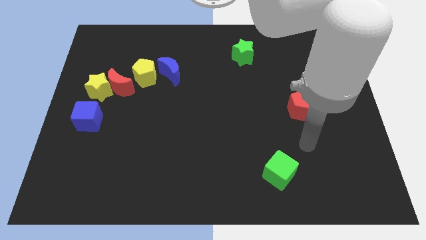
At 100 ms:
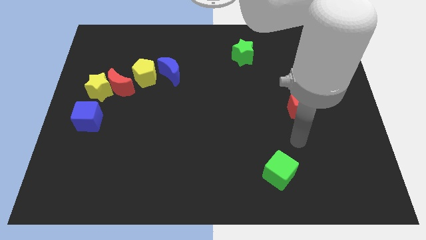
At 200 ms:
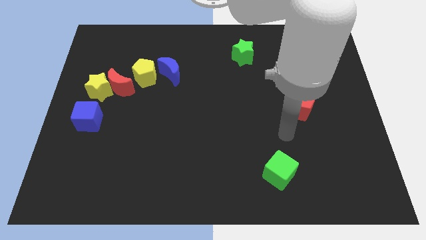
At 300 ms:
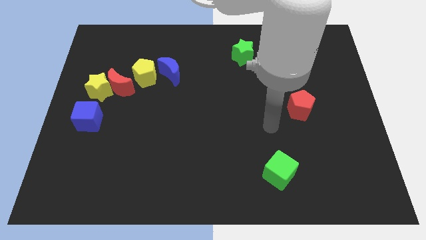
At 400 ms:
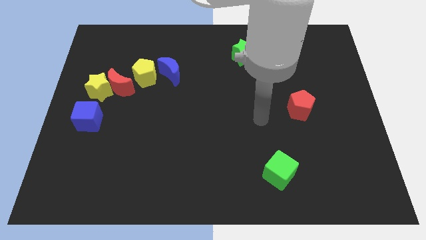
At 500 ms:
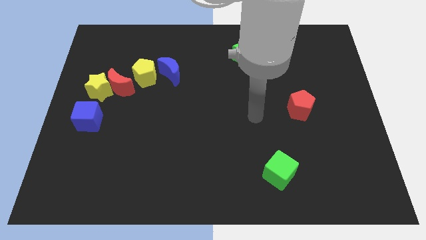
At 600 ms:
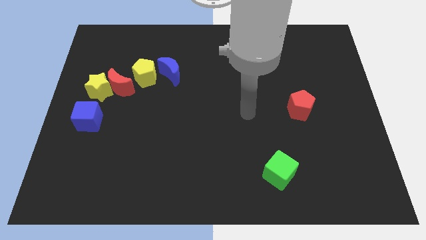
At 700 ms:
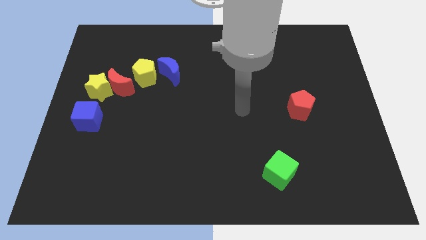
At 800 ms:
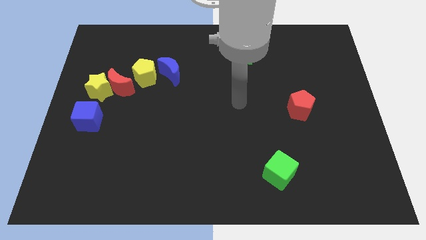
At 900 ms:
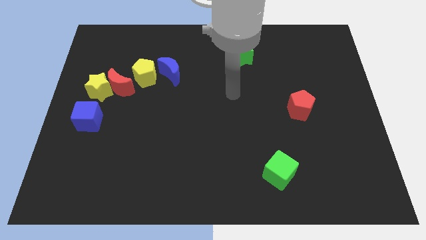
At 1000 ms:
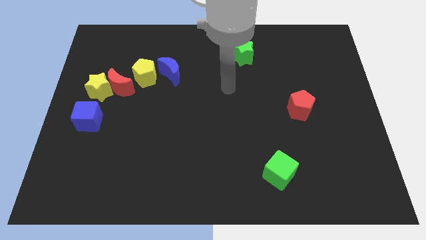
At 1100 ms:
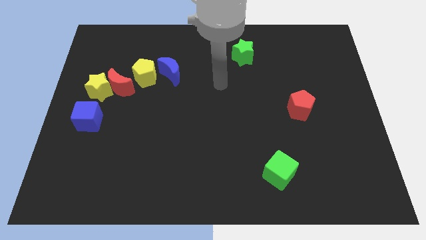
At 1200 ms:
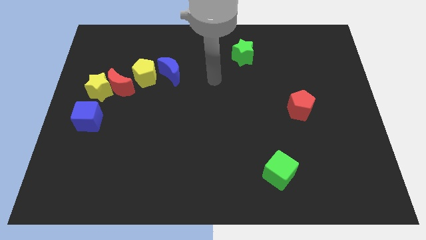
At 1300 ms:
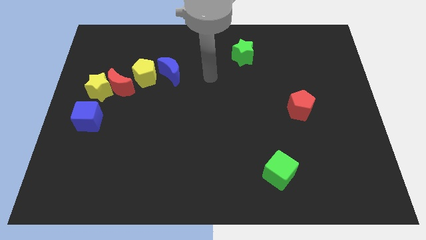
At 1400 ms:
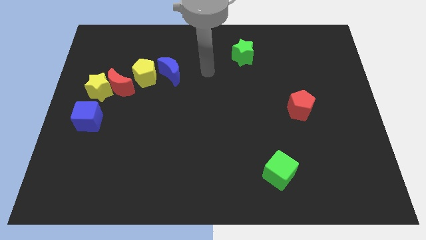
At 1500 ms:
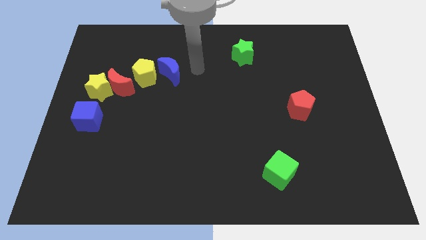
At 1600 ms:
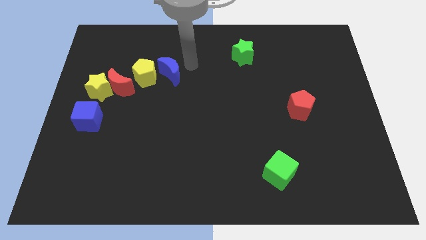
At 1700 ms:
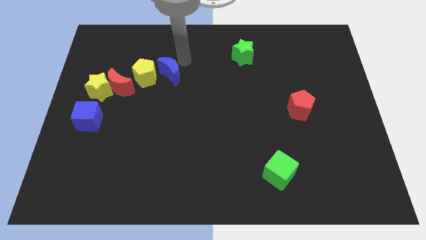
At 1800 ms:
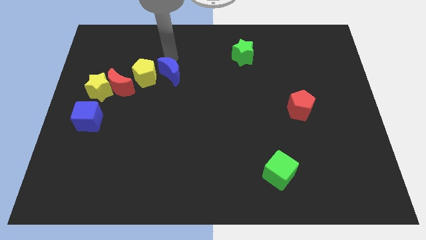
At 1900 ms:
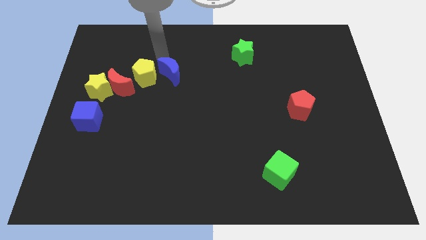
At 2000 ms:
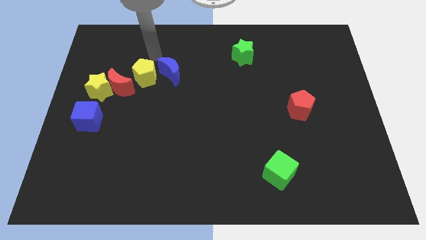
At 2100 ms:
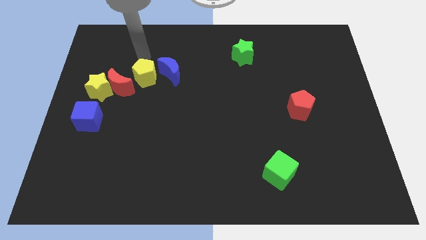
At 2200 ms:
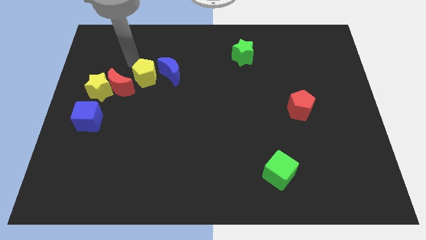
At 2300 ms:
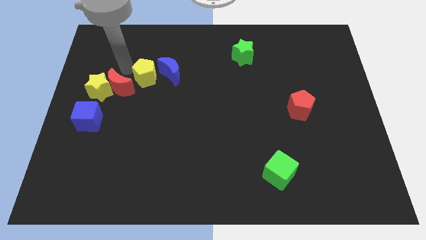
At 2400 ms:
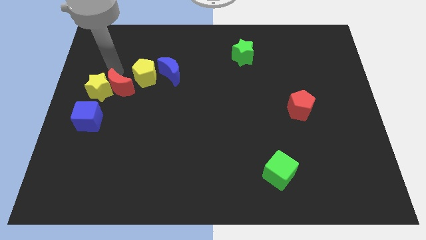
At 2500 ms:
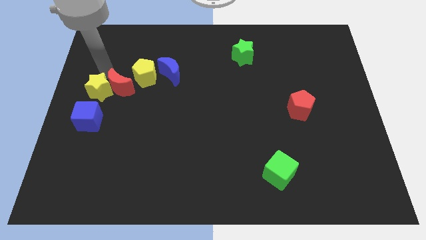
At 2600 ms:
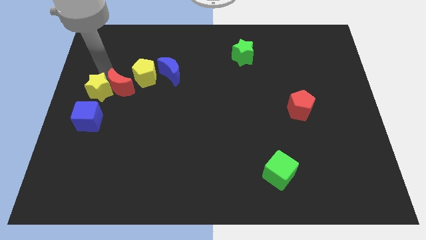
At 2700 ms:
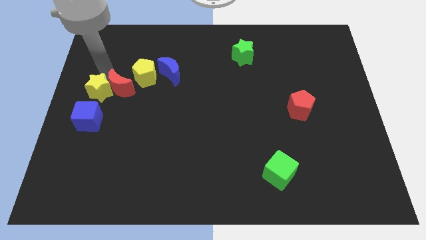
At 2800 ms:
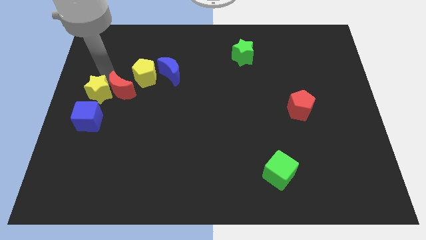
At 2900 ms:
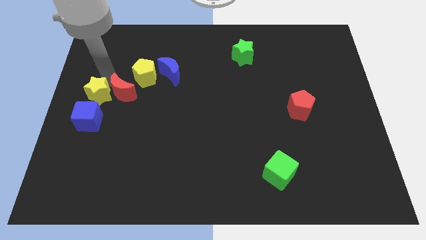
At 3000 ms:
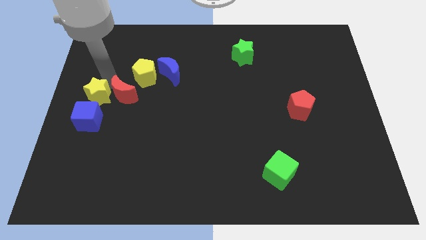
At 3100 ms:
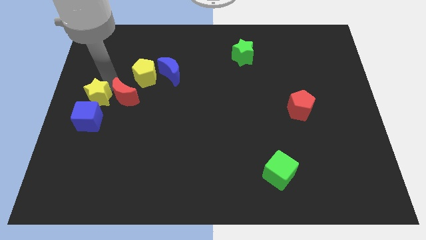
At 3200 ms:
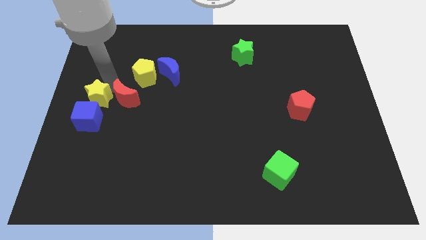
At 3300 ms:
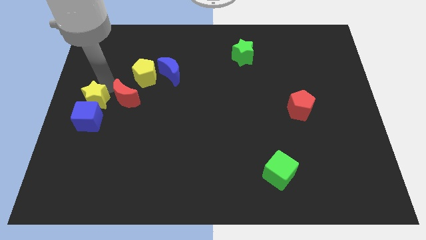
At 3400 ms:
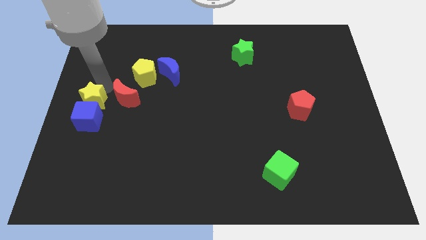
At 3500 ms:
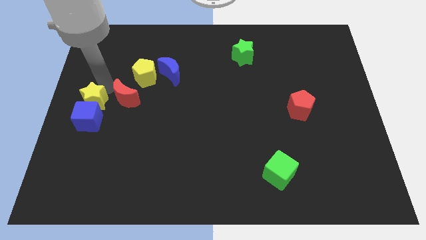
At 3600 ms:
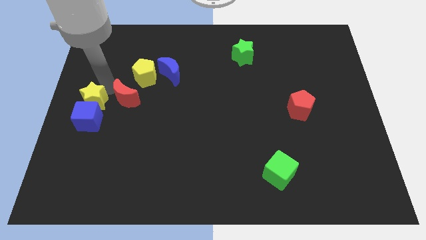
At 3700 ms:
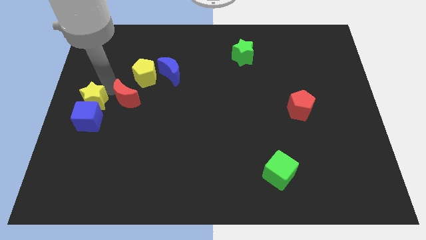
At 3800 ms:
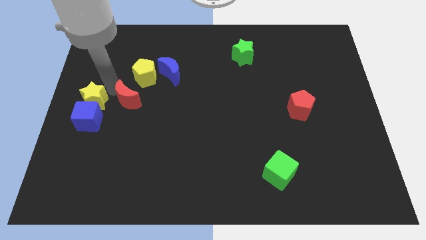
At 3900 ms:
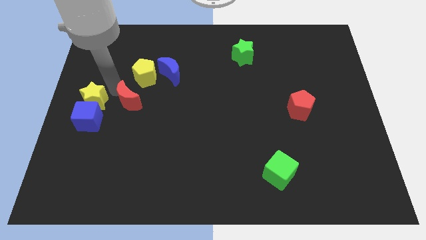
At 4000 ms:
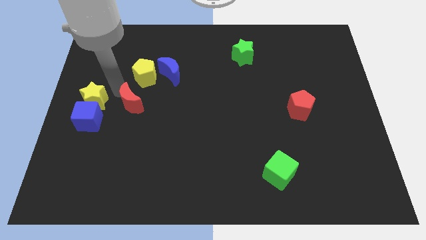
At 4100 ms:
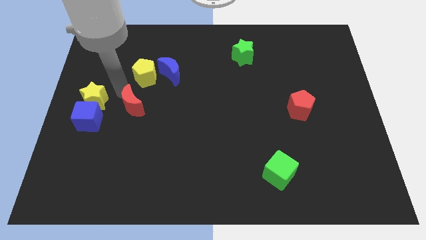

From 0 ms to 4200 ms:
push the red moon down and right diagonally somewhat

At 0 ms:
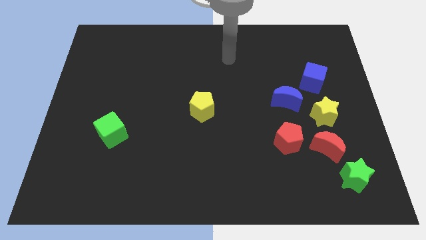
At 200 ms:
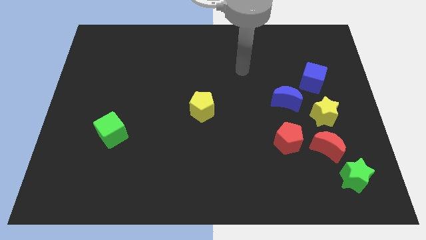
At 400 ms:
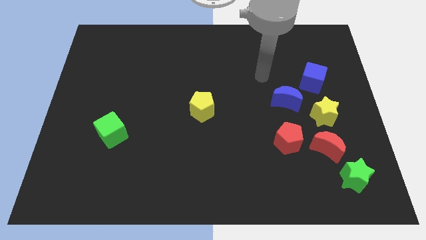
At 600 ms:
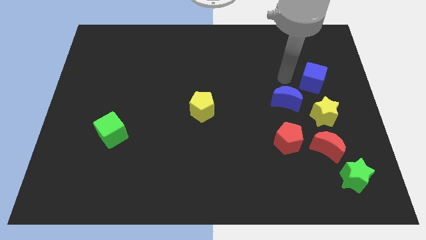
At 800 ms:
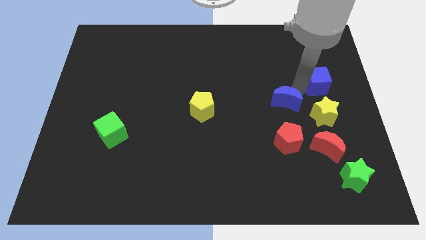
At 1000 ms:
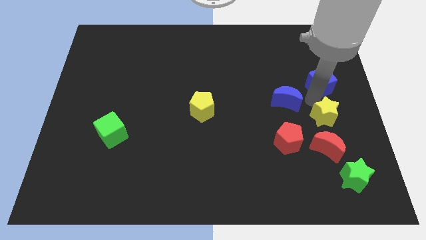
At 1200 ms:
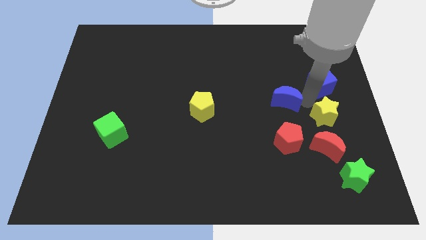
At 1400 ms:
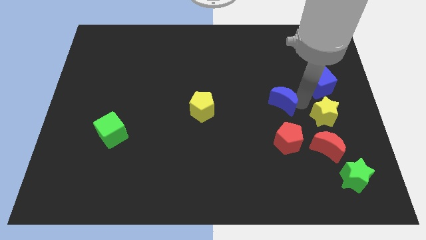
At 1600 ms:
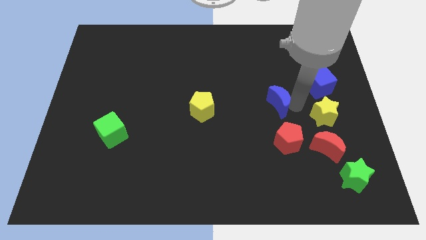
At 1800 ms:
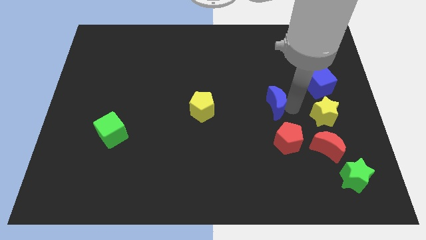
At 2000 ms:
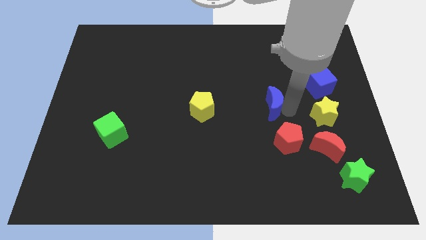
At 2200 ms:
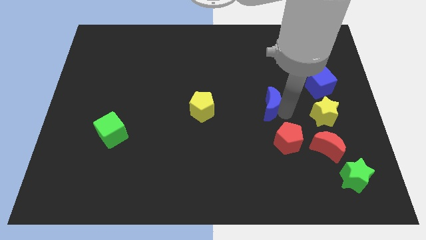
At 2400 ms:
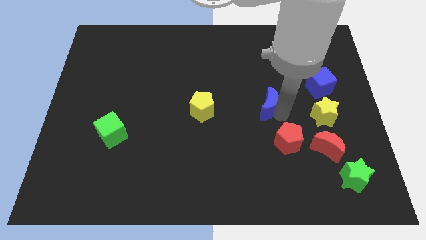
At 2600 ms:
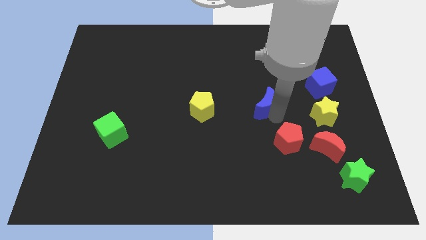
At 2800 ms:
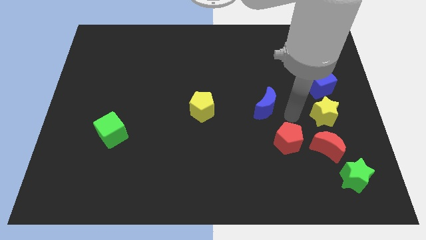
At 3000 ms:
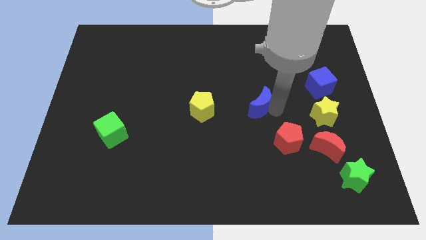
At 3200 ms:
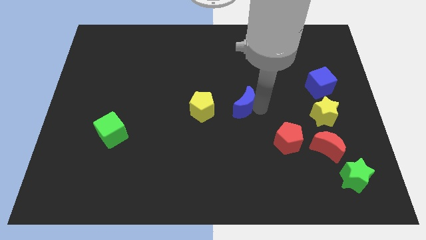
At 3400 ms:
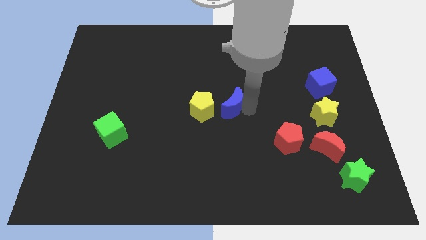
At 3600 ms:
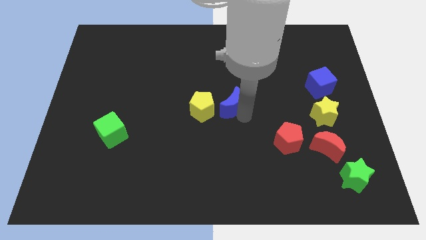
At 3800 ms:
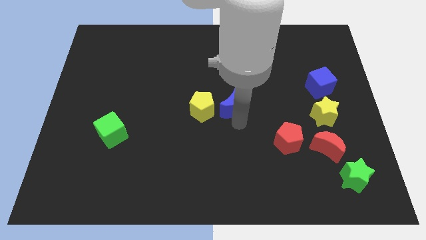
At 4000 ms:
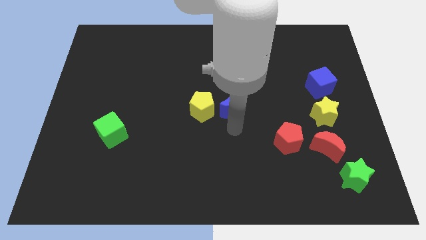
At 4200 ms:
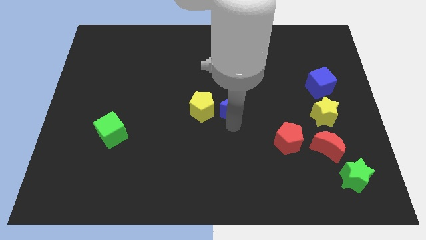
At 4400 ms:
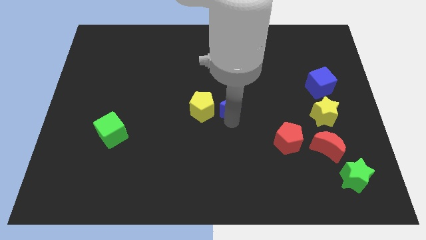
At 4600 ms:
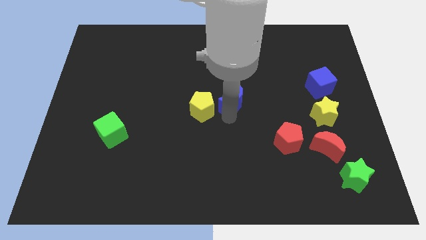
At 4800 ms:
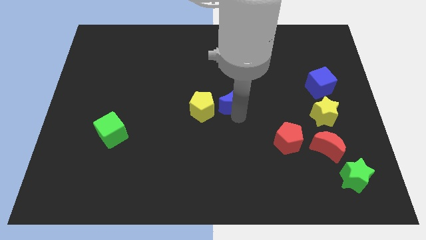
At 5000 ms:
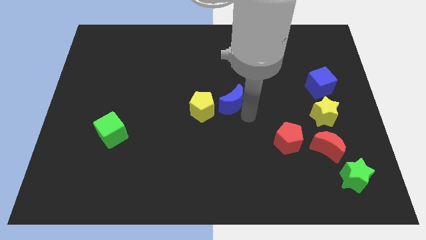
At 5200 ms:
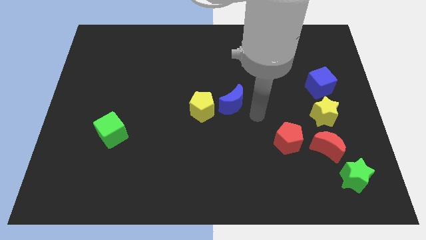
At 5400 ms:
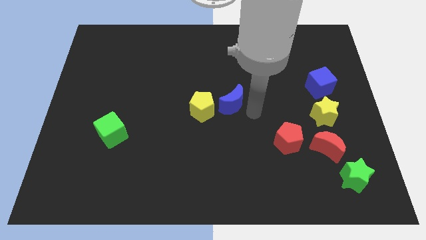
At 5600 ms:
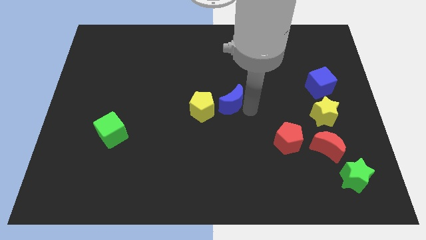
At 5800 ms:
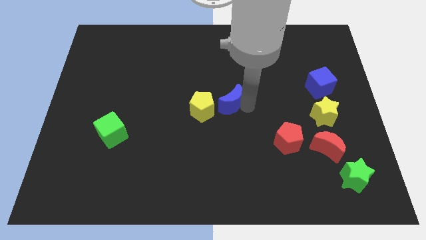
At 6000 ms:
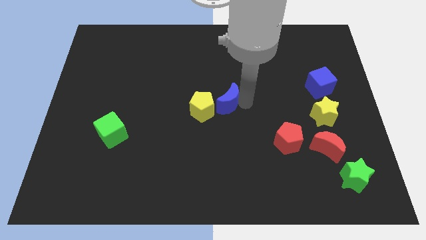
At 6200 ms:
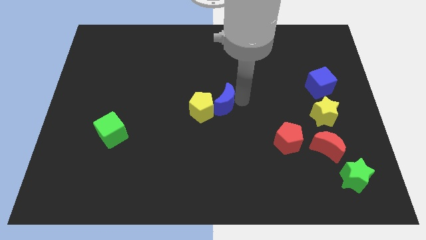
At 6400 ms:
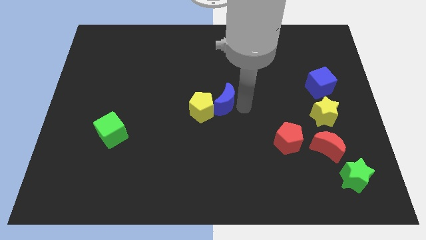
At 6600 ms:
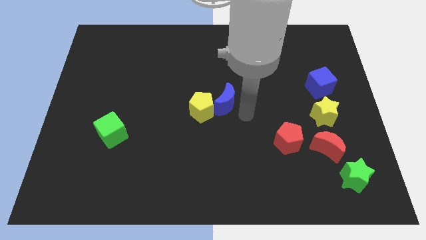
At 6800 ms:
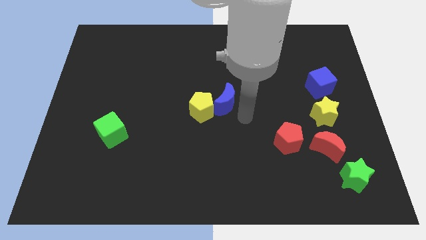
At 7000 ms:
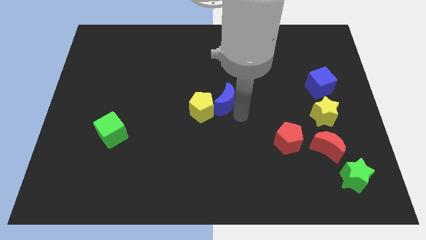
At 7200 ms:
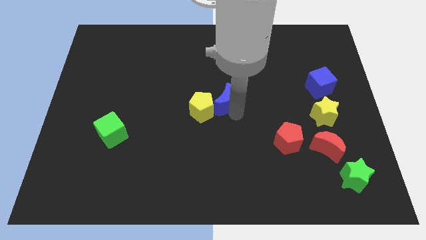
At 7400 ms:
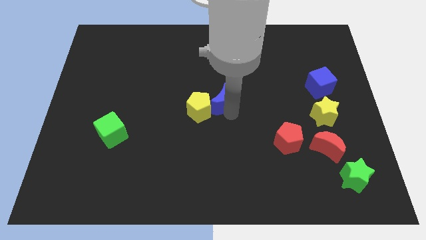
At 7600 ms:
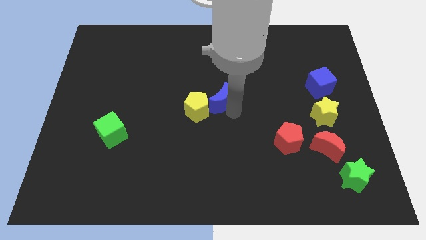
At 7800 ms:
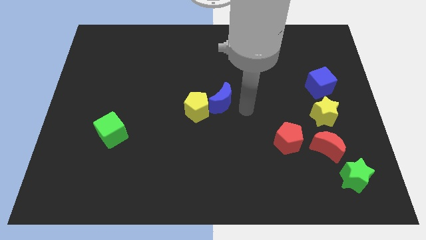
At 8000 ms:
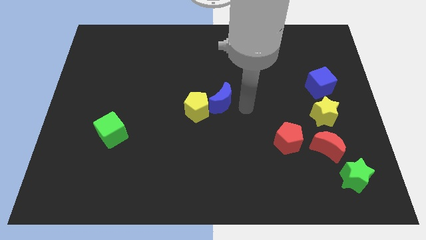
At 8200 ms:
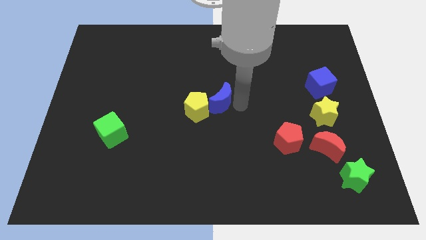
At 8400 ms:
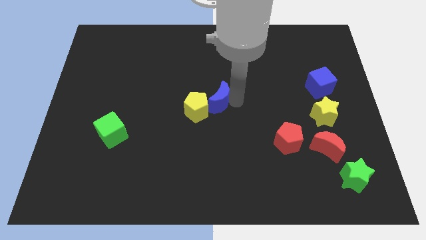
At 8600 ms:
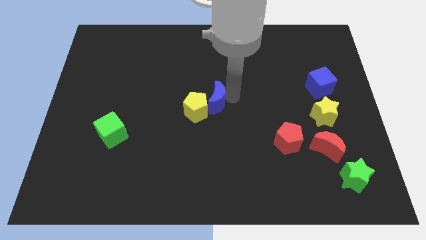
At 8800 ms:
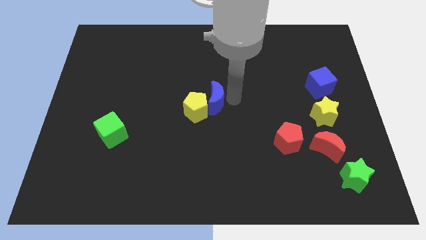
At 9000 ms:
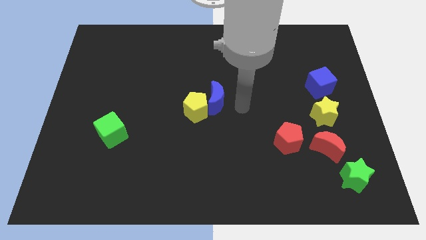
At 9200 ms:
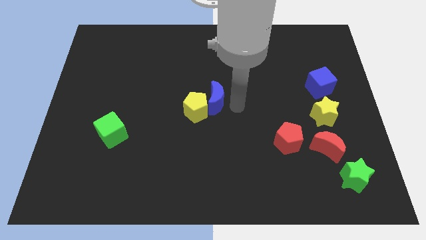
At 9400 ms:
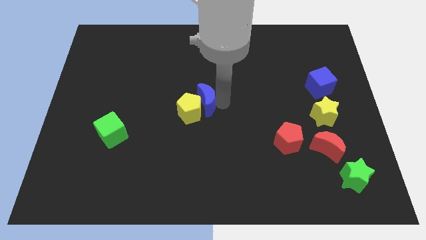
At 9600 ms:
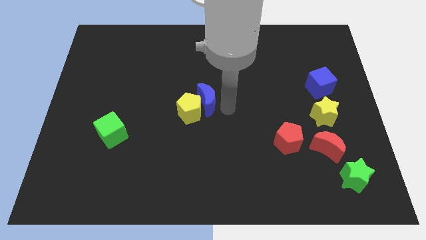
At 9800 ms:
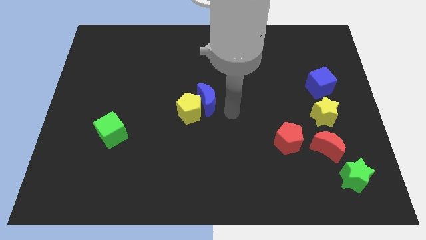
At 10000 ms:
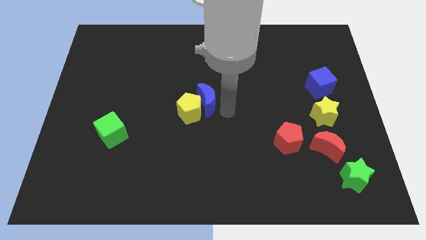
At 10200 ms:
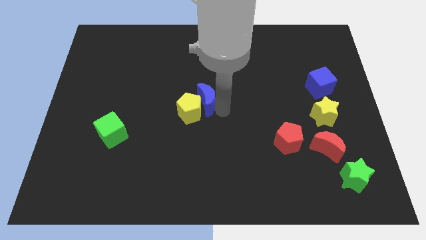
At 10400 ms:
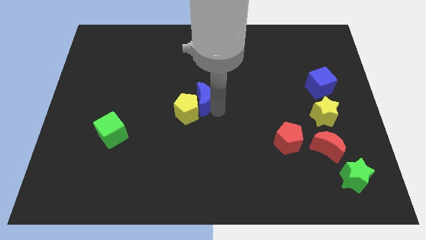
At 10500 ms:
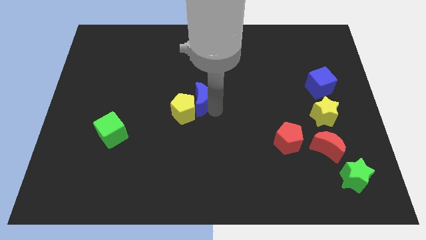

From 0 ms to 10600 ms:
push the blue moon left
